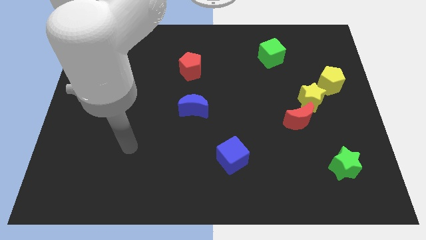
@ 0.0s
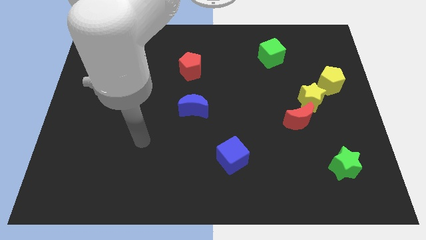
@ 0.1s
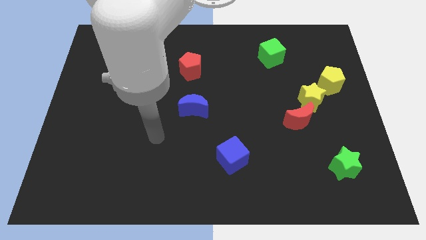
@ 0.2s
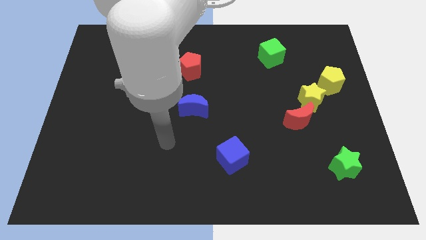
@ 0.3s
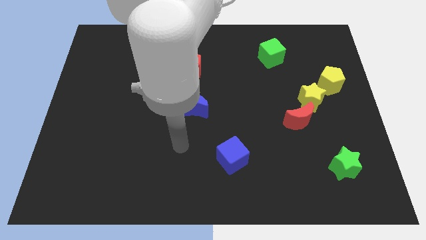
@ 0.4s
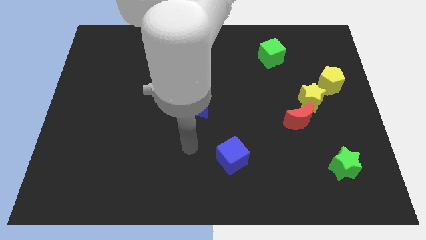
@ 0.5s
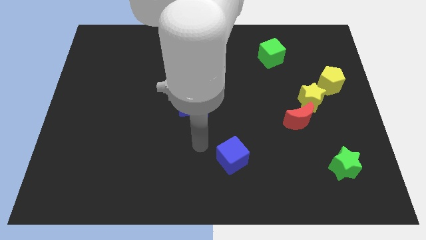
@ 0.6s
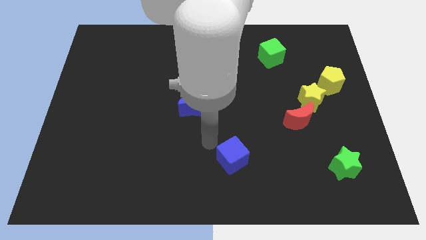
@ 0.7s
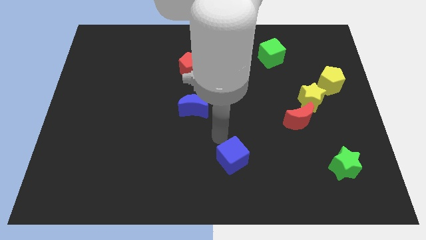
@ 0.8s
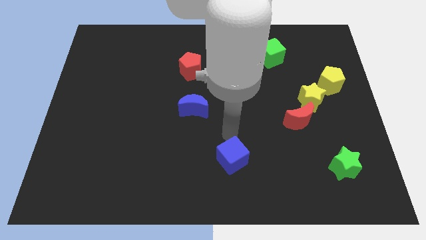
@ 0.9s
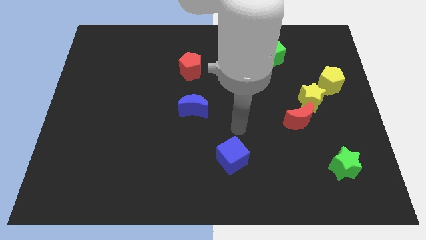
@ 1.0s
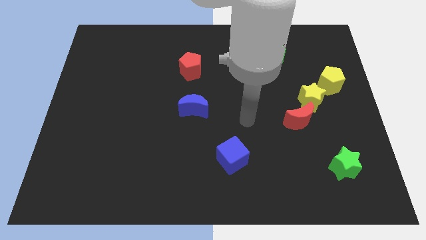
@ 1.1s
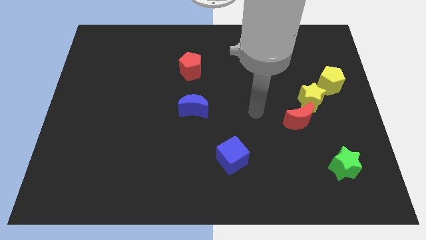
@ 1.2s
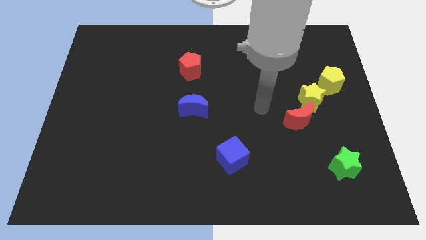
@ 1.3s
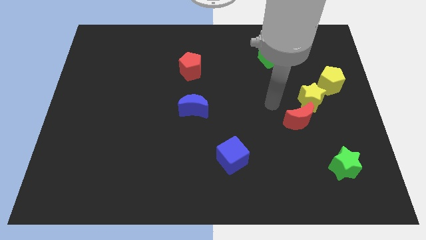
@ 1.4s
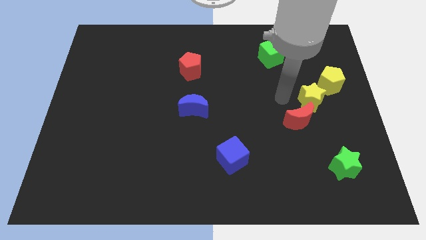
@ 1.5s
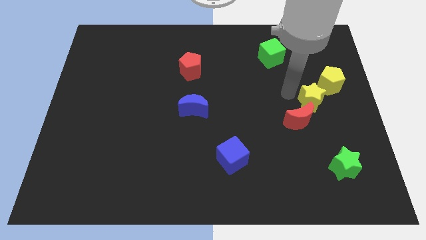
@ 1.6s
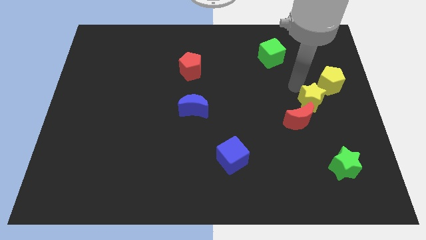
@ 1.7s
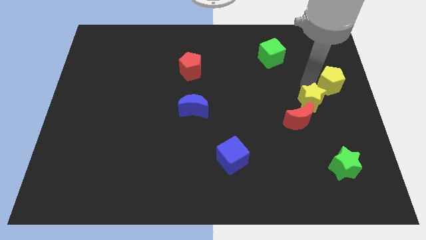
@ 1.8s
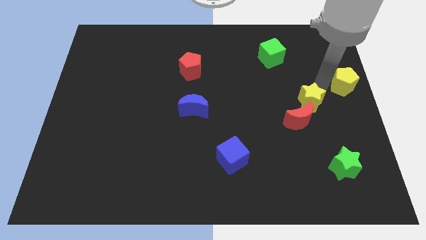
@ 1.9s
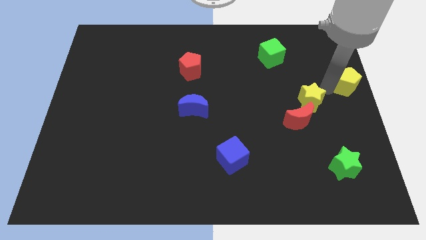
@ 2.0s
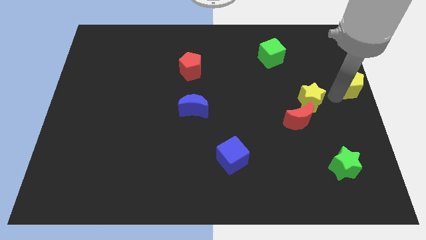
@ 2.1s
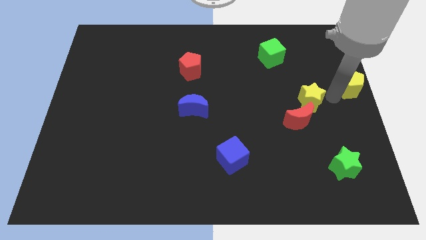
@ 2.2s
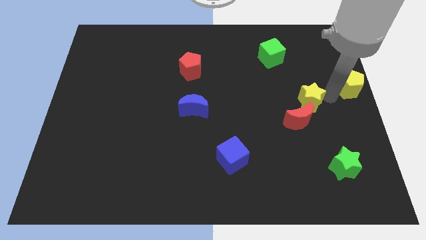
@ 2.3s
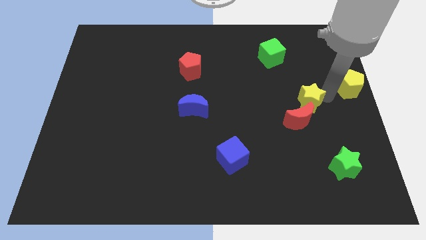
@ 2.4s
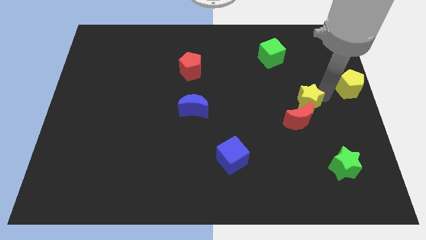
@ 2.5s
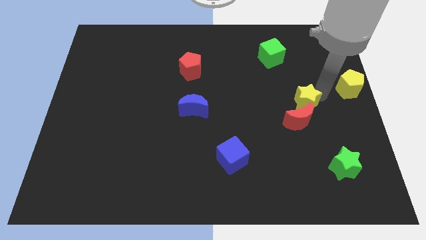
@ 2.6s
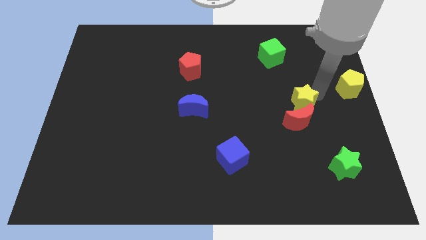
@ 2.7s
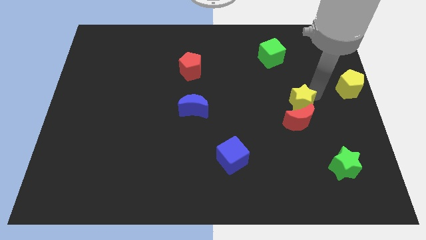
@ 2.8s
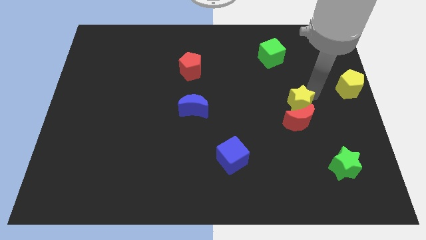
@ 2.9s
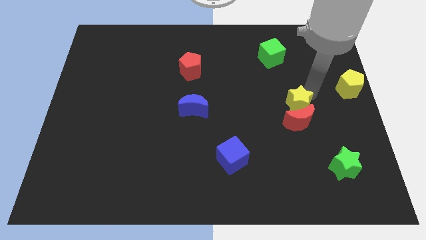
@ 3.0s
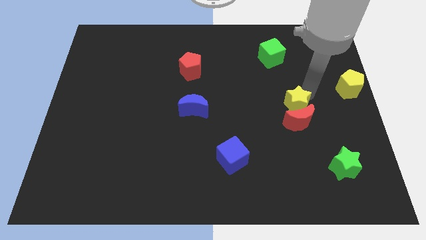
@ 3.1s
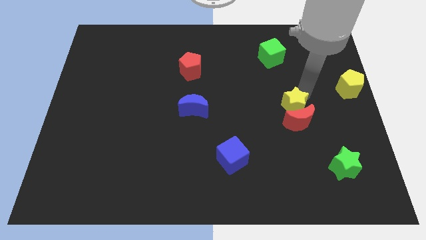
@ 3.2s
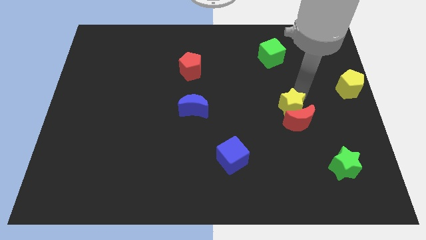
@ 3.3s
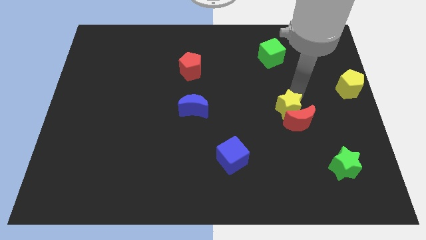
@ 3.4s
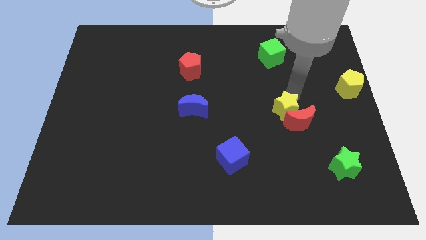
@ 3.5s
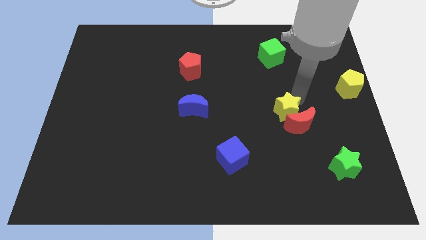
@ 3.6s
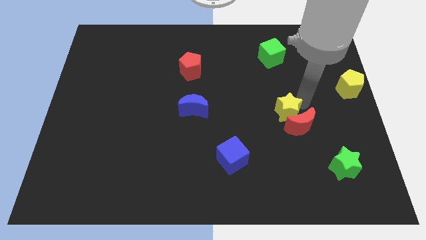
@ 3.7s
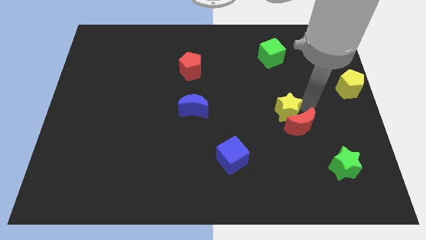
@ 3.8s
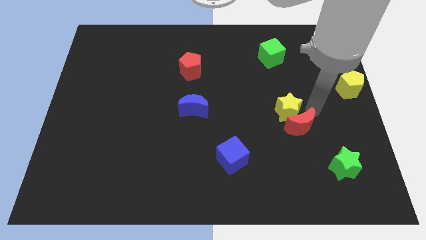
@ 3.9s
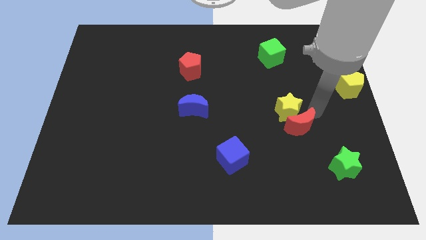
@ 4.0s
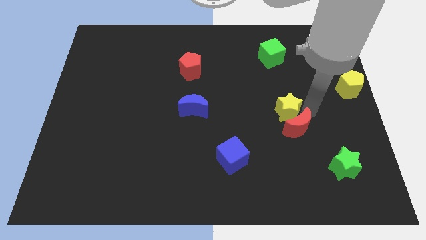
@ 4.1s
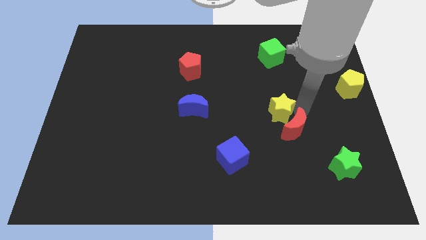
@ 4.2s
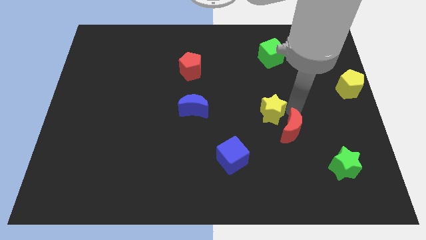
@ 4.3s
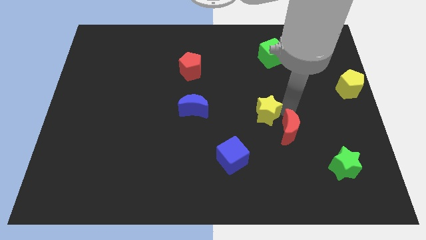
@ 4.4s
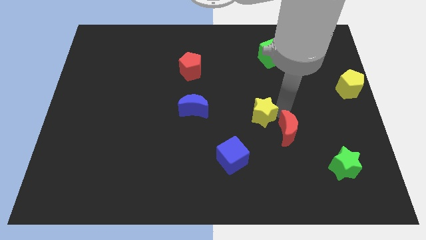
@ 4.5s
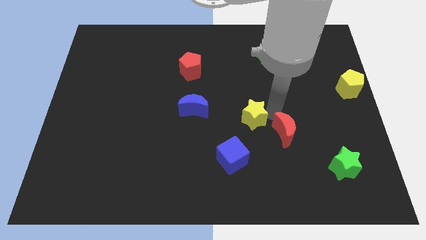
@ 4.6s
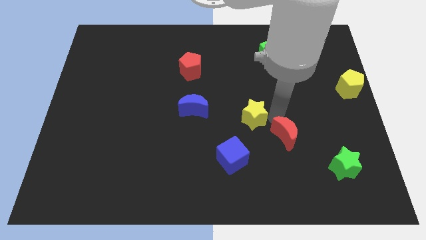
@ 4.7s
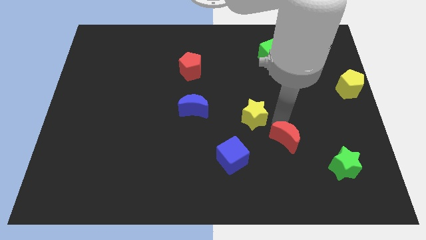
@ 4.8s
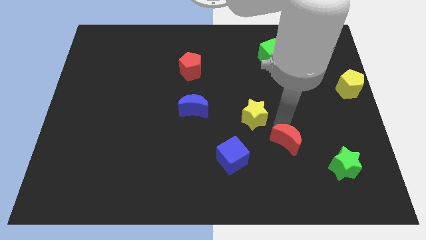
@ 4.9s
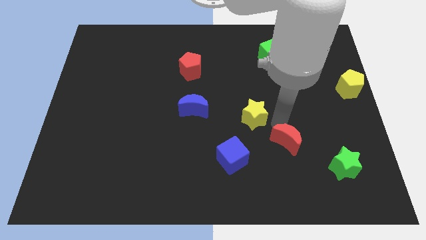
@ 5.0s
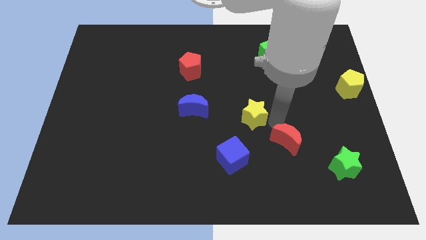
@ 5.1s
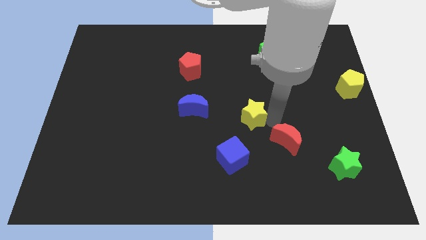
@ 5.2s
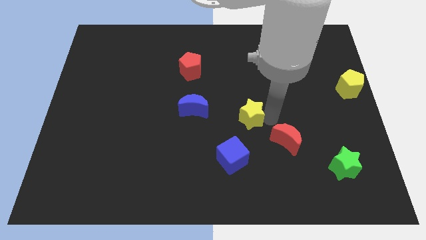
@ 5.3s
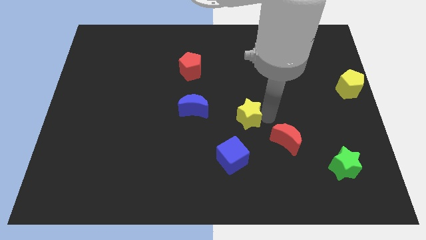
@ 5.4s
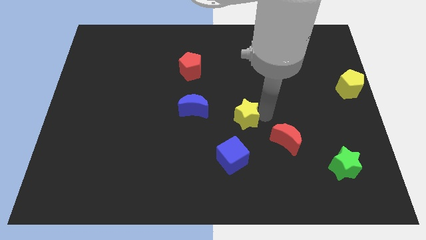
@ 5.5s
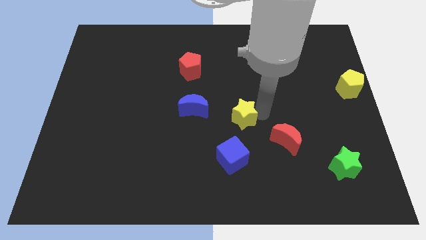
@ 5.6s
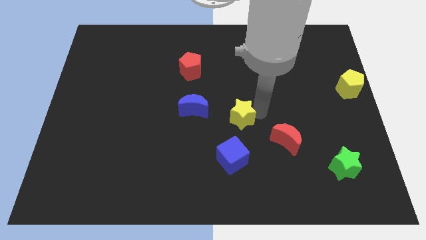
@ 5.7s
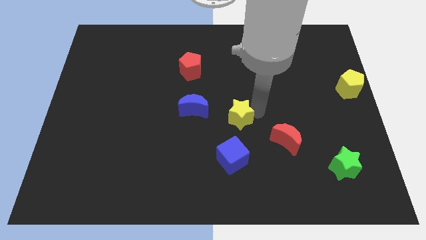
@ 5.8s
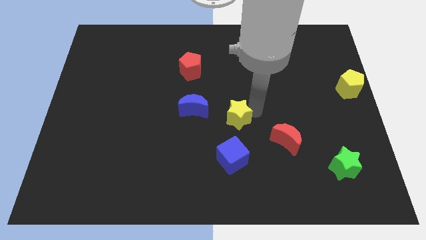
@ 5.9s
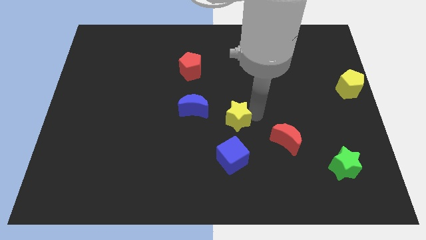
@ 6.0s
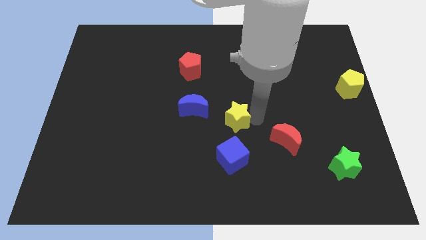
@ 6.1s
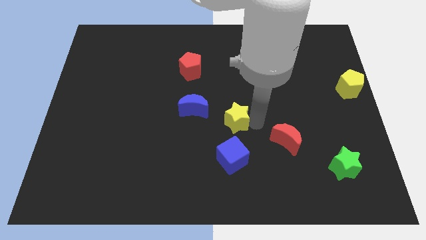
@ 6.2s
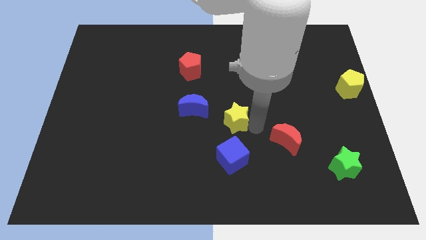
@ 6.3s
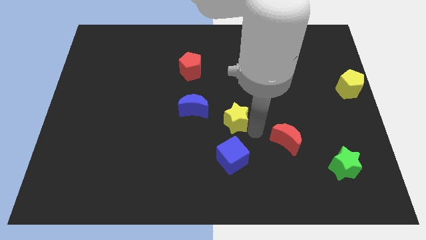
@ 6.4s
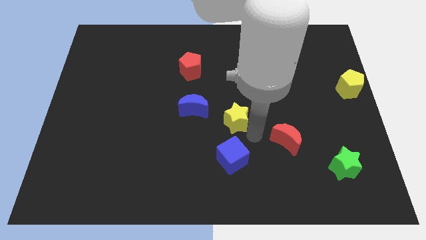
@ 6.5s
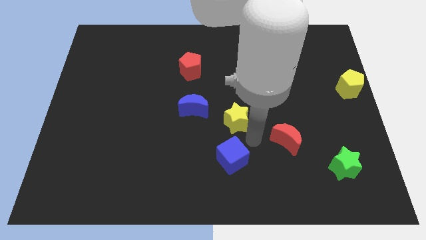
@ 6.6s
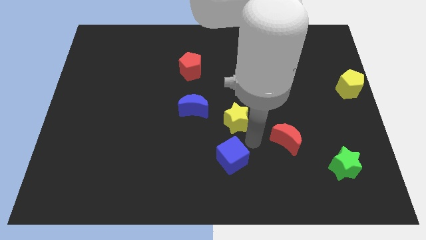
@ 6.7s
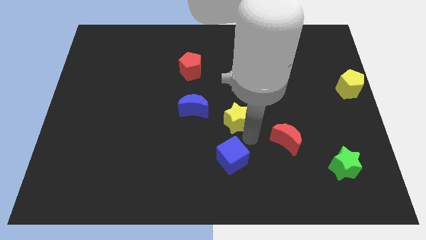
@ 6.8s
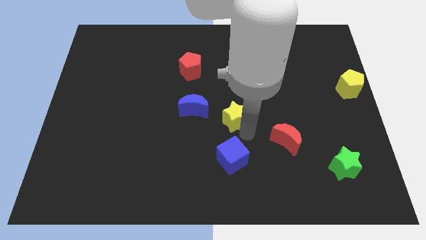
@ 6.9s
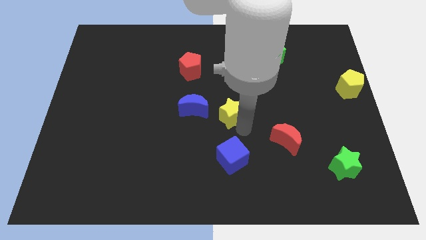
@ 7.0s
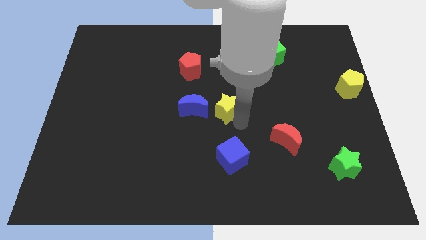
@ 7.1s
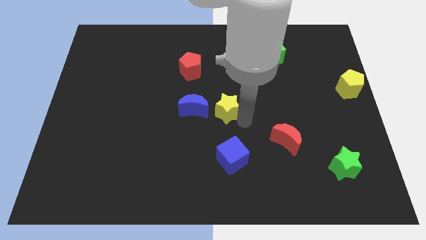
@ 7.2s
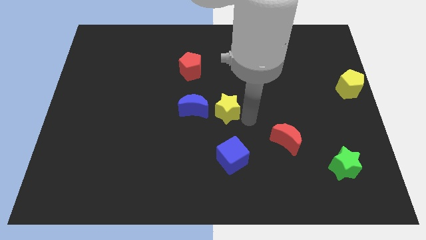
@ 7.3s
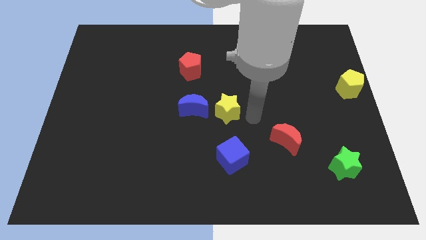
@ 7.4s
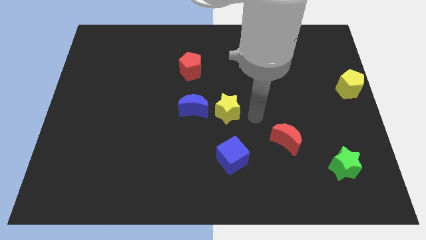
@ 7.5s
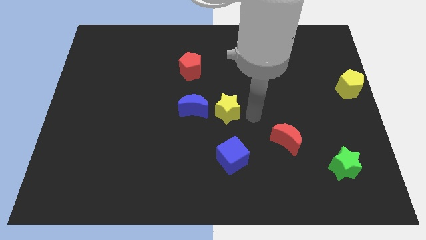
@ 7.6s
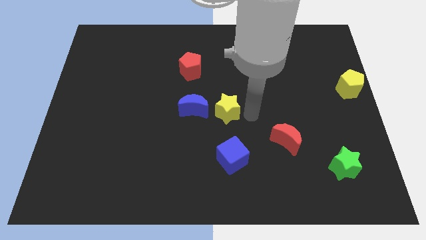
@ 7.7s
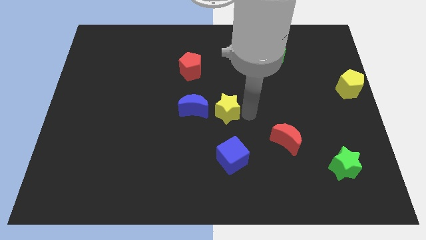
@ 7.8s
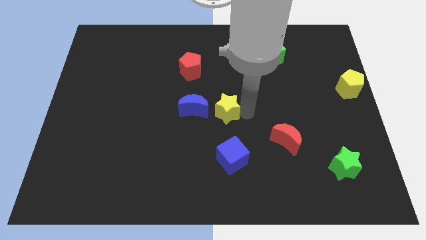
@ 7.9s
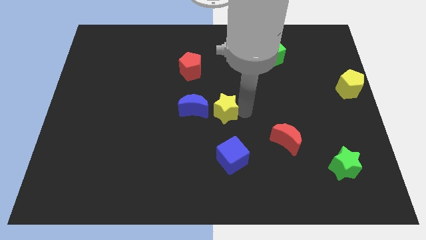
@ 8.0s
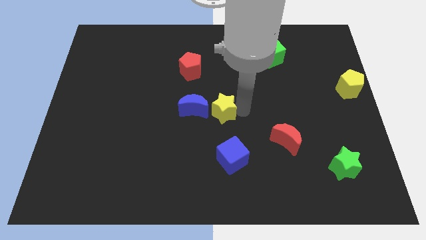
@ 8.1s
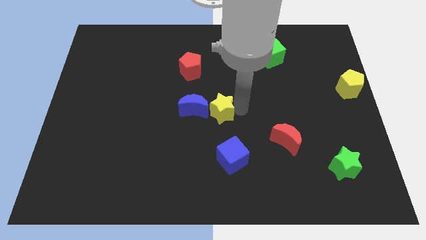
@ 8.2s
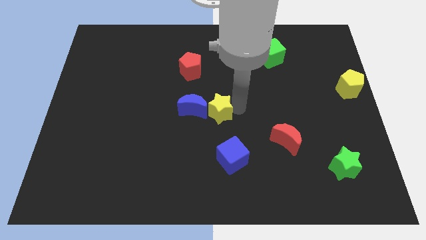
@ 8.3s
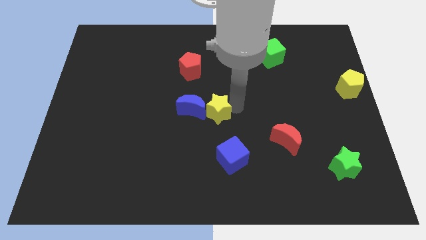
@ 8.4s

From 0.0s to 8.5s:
slide the yellow star to the blue moon

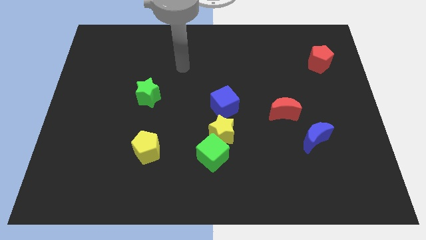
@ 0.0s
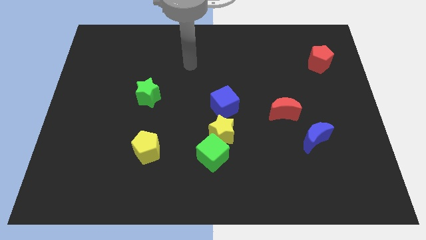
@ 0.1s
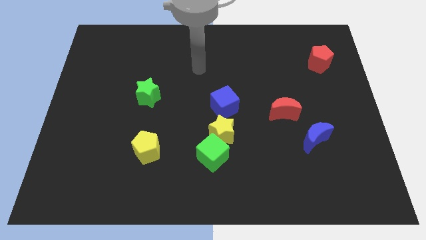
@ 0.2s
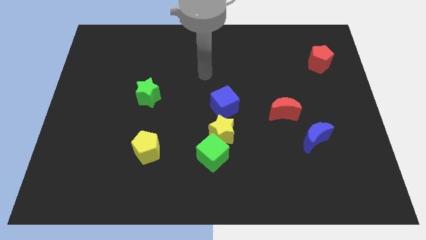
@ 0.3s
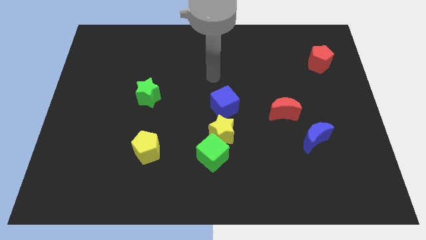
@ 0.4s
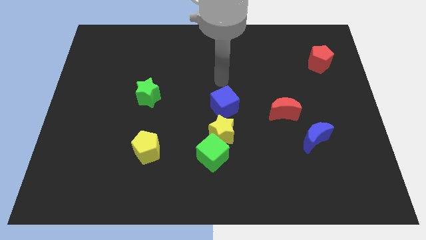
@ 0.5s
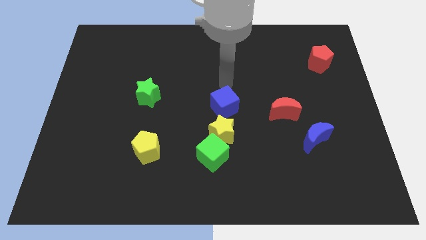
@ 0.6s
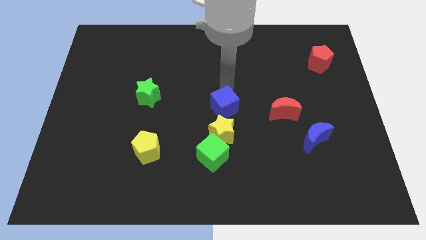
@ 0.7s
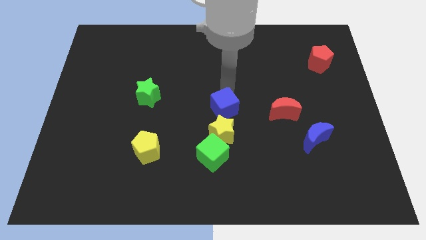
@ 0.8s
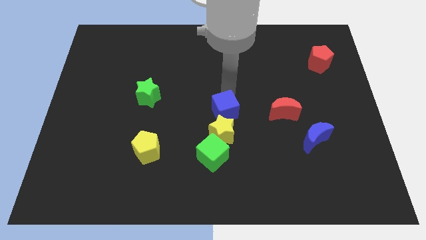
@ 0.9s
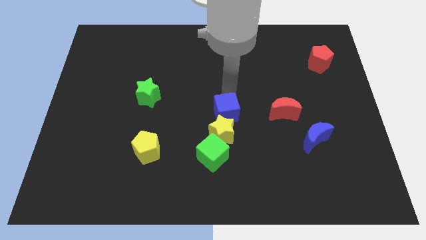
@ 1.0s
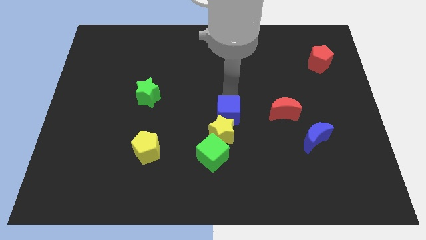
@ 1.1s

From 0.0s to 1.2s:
slide the blue cube close to the yellow star
